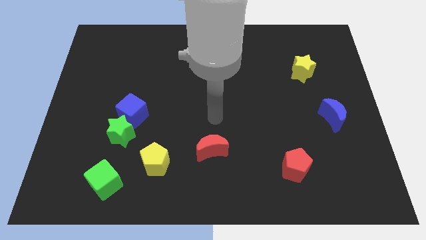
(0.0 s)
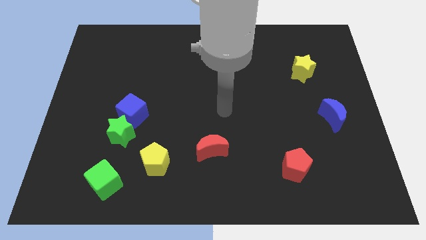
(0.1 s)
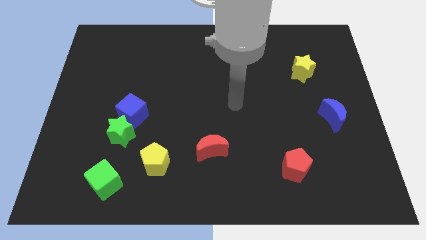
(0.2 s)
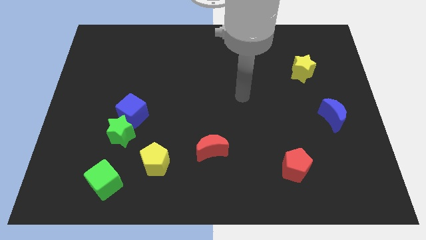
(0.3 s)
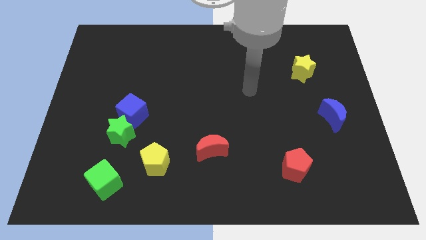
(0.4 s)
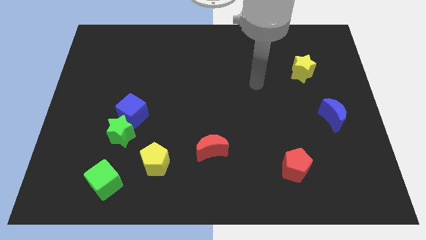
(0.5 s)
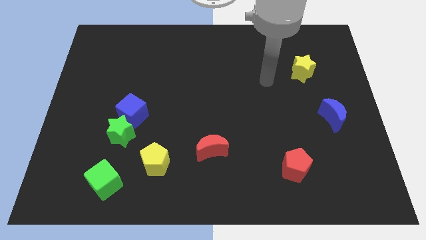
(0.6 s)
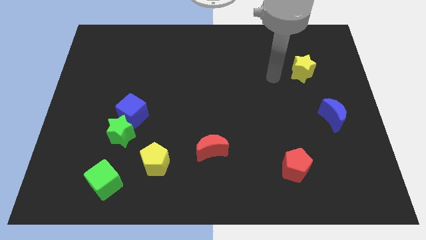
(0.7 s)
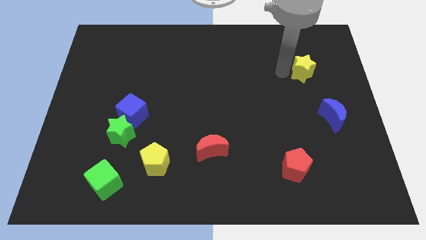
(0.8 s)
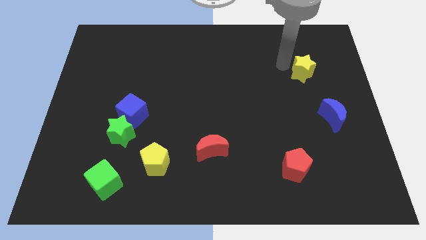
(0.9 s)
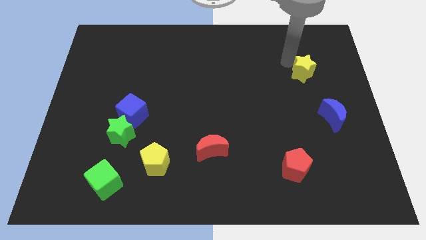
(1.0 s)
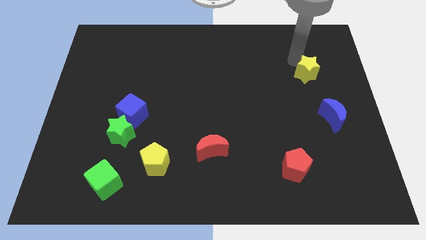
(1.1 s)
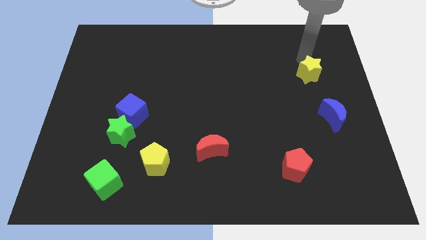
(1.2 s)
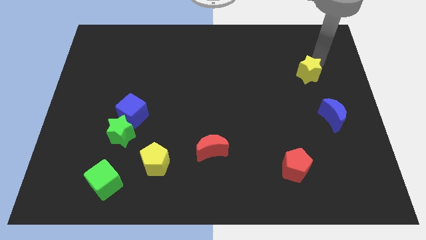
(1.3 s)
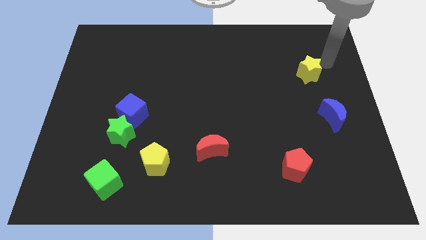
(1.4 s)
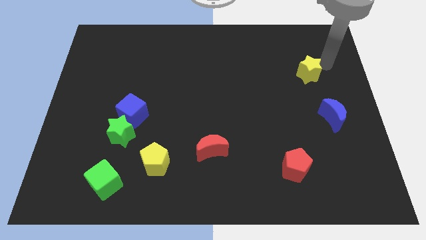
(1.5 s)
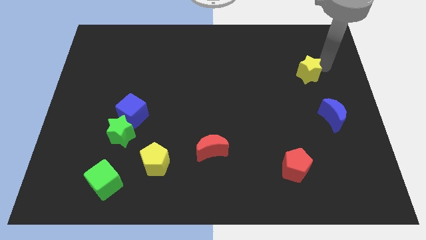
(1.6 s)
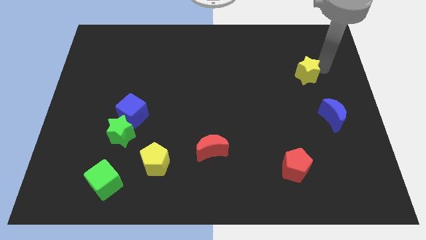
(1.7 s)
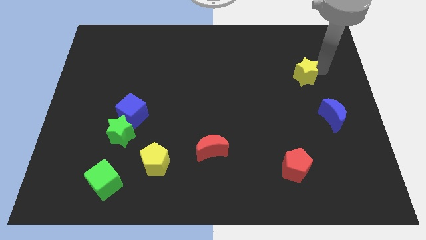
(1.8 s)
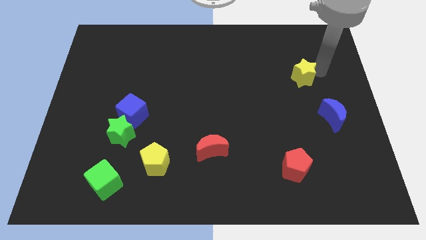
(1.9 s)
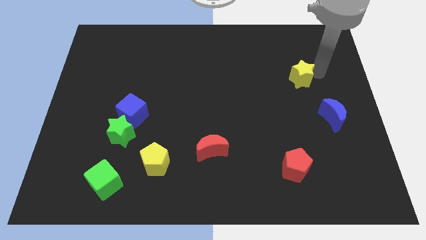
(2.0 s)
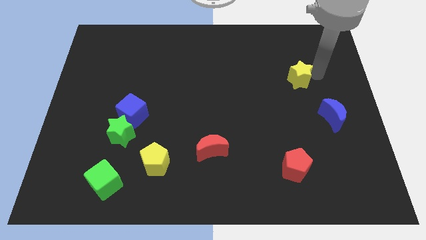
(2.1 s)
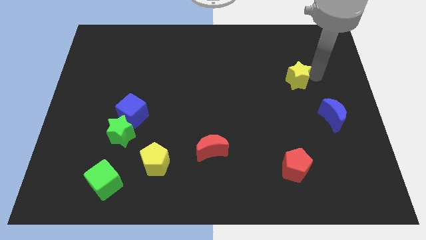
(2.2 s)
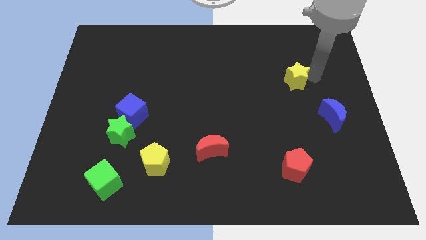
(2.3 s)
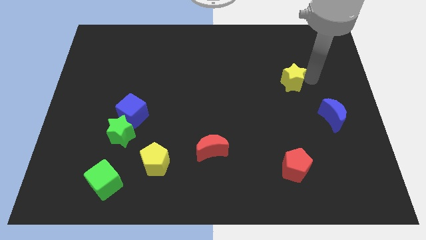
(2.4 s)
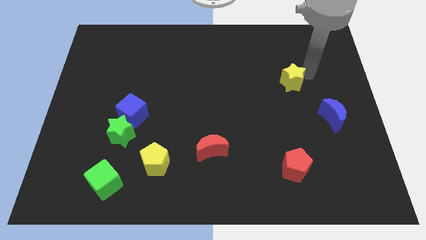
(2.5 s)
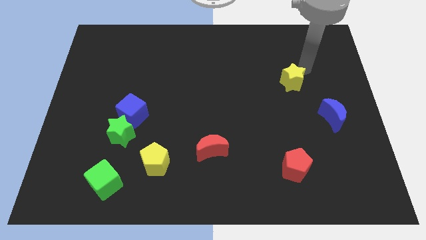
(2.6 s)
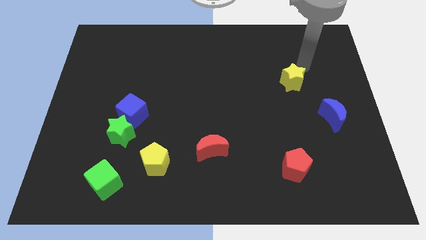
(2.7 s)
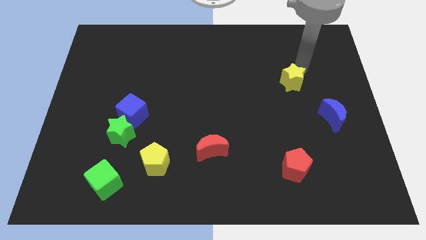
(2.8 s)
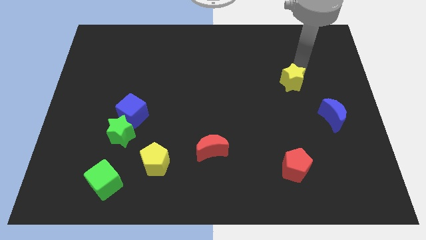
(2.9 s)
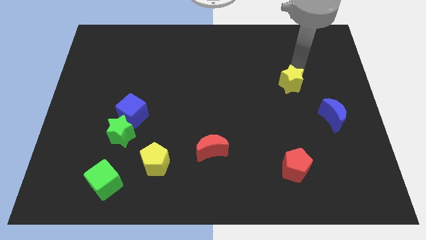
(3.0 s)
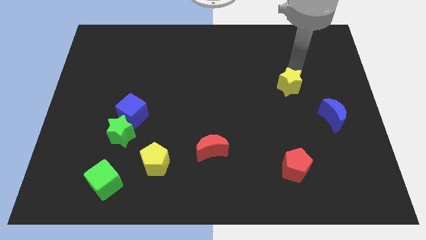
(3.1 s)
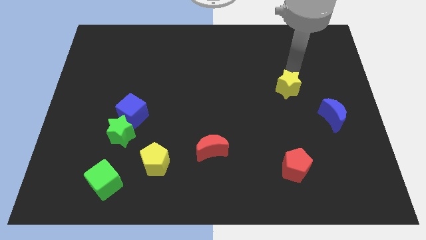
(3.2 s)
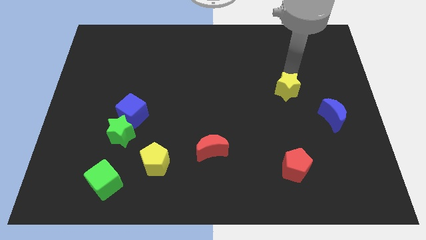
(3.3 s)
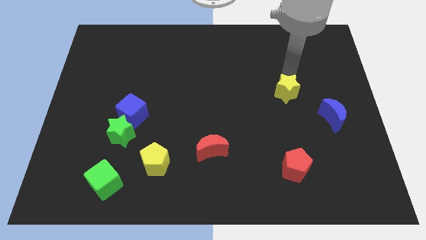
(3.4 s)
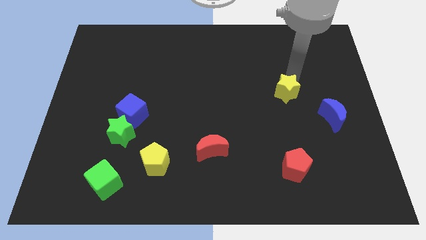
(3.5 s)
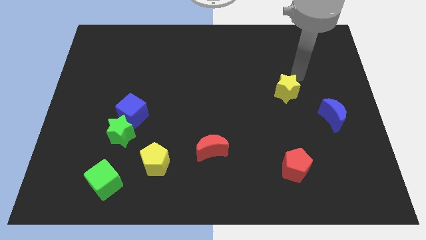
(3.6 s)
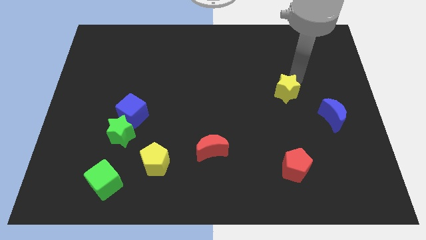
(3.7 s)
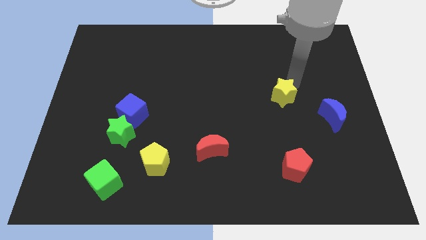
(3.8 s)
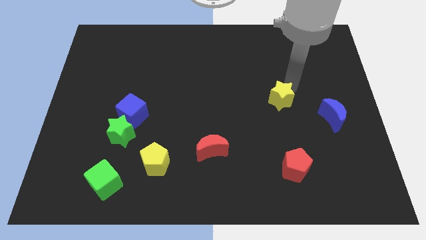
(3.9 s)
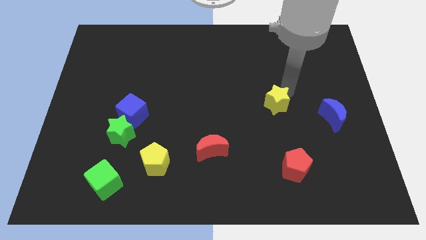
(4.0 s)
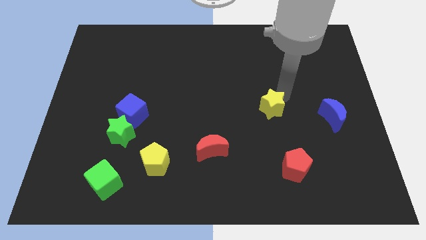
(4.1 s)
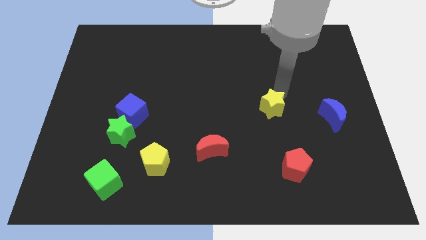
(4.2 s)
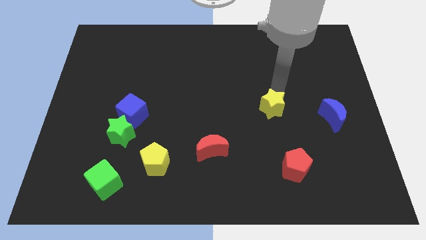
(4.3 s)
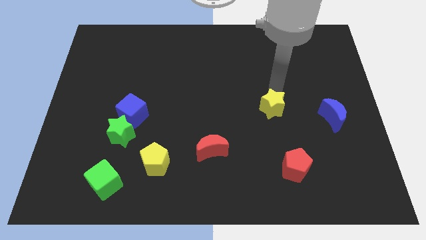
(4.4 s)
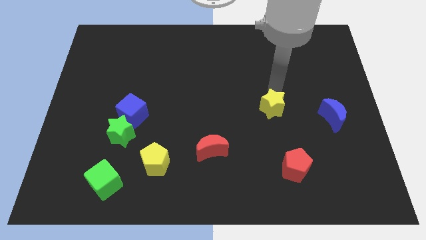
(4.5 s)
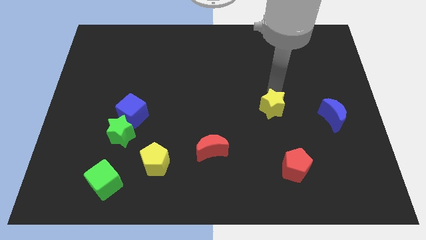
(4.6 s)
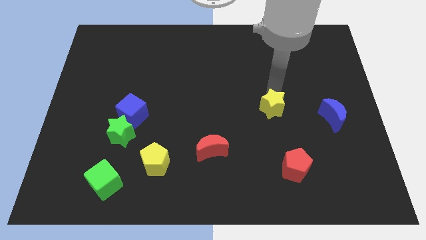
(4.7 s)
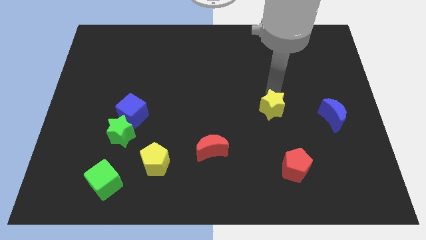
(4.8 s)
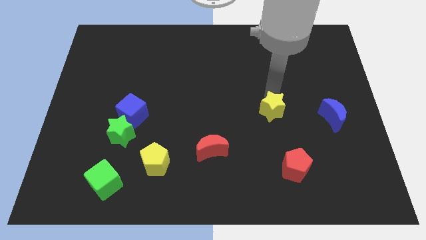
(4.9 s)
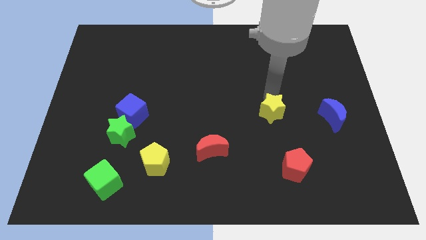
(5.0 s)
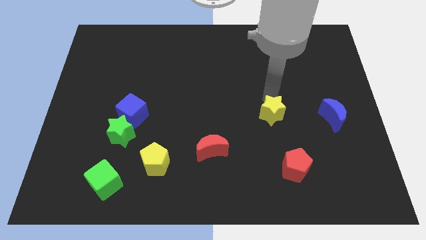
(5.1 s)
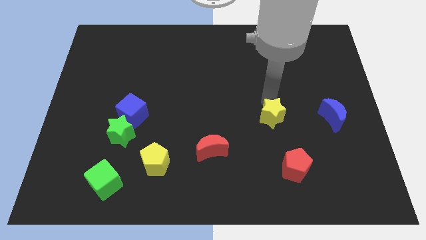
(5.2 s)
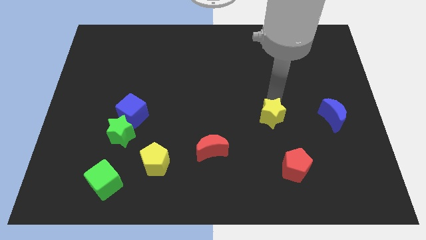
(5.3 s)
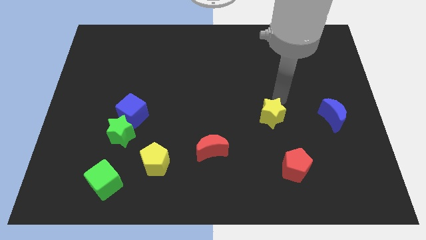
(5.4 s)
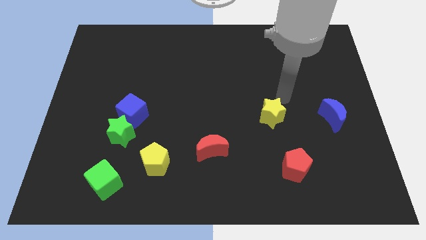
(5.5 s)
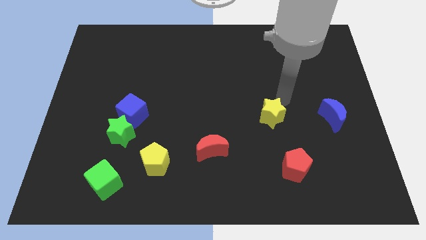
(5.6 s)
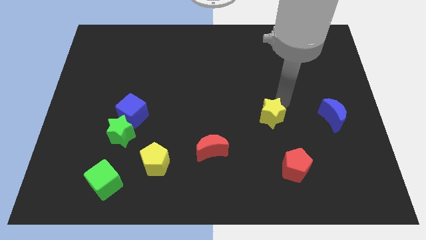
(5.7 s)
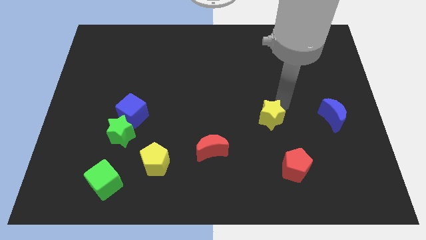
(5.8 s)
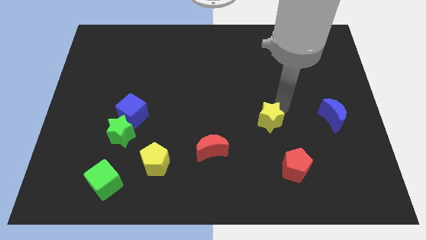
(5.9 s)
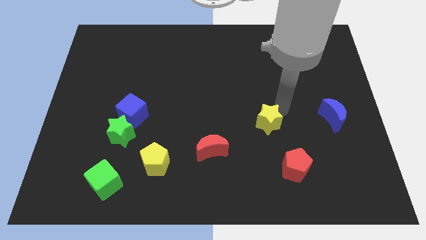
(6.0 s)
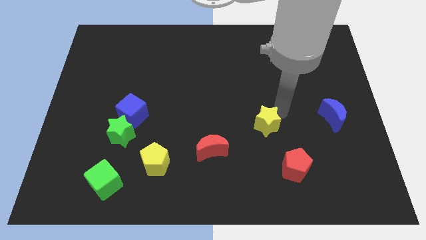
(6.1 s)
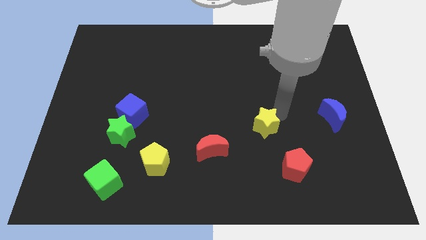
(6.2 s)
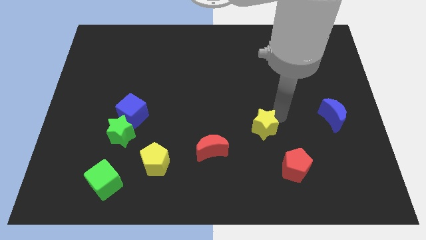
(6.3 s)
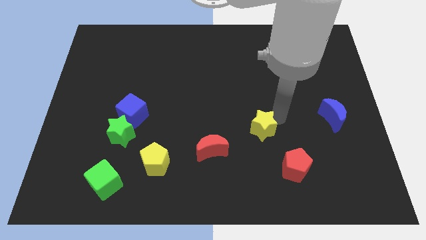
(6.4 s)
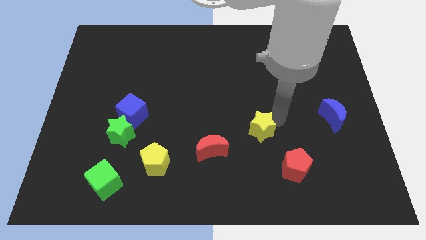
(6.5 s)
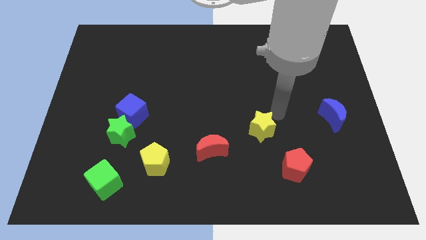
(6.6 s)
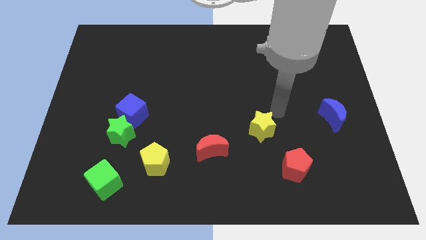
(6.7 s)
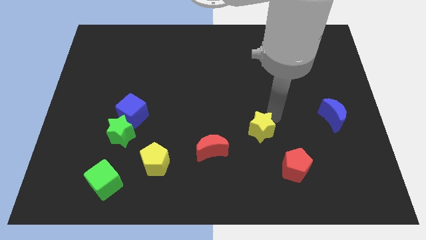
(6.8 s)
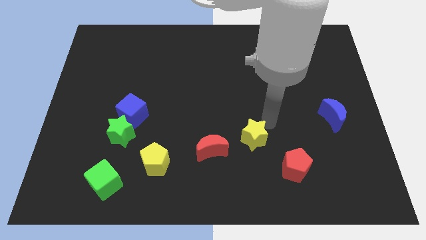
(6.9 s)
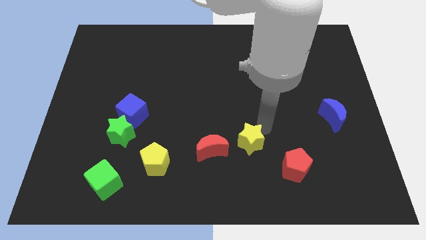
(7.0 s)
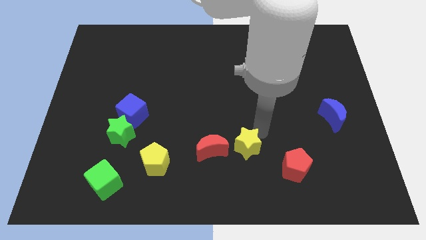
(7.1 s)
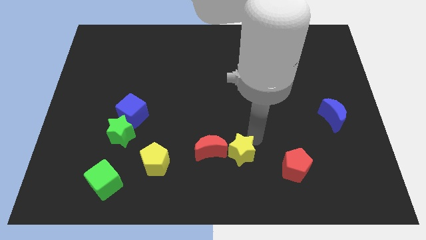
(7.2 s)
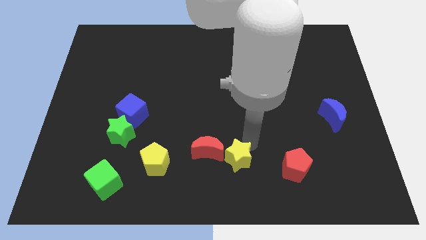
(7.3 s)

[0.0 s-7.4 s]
slide the yellow star to the bottom
